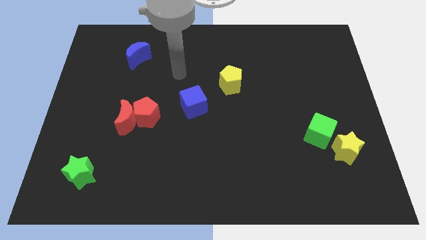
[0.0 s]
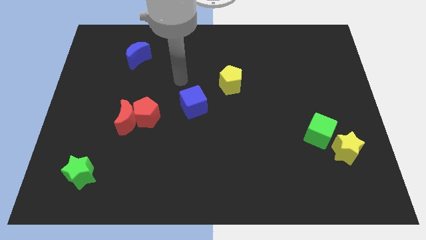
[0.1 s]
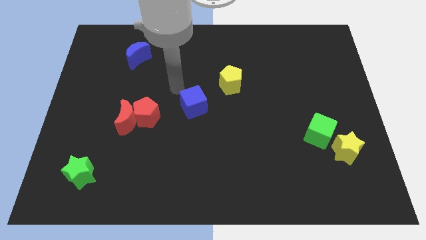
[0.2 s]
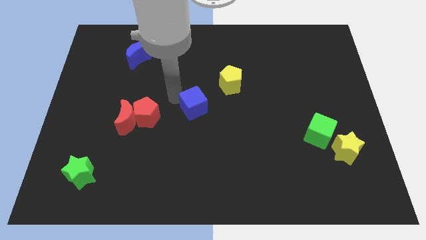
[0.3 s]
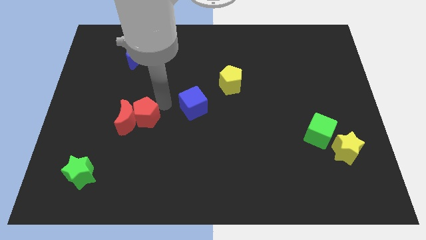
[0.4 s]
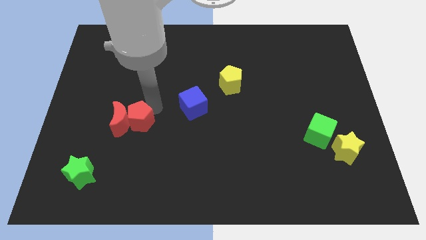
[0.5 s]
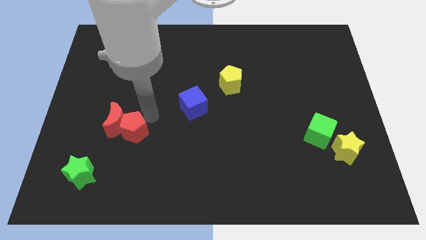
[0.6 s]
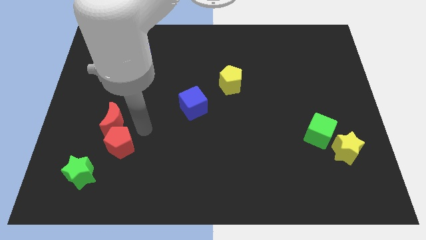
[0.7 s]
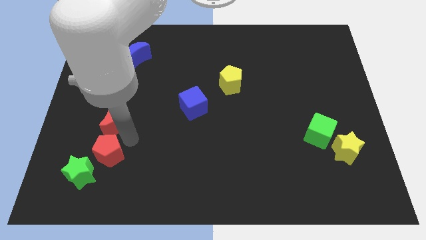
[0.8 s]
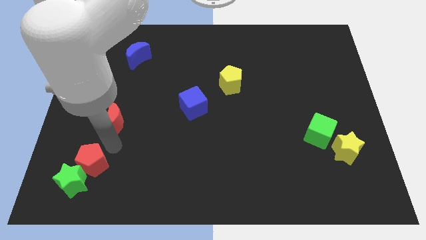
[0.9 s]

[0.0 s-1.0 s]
separate the red moon from the red pentagon

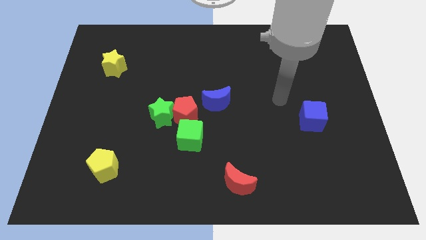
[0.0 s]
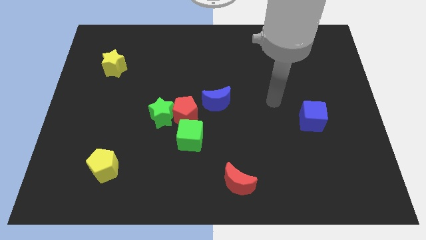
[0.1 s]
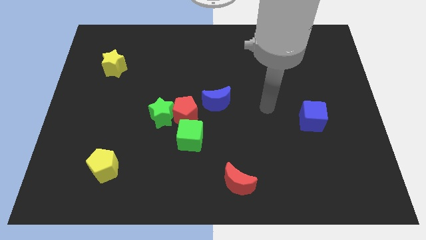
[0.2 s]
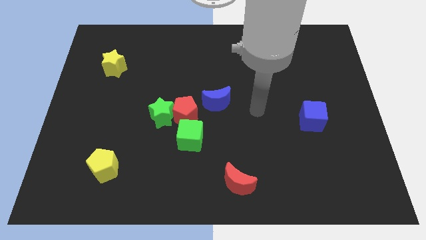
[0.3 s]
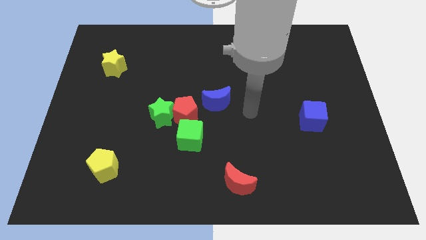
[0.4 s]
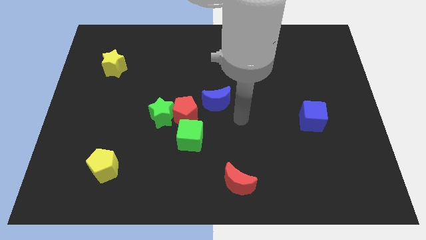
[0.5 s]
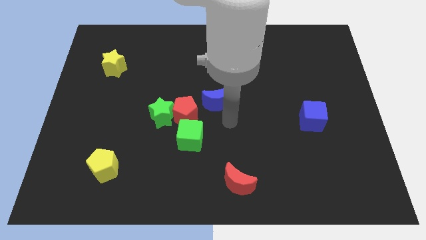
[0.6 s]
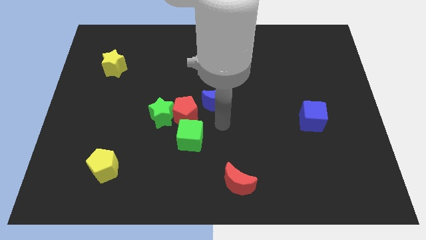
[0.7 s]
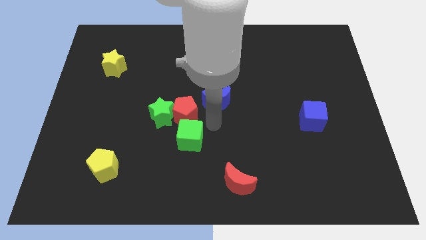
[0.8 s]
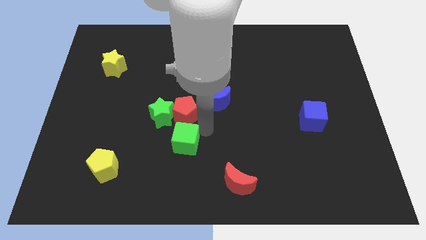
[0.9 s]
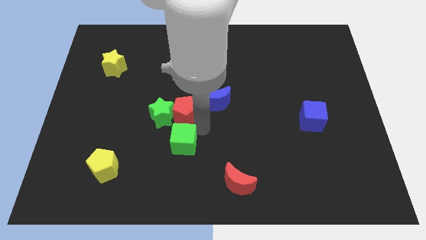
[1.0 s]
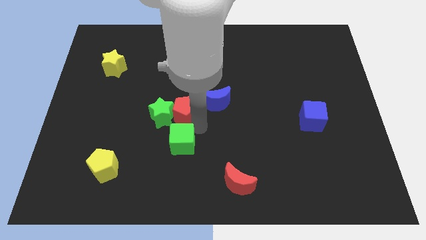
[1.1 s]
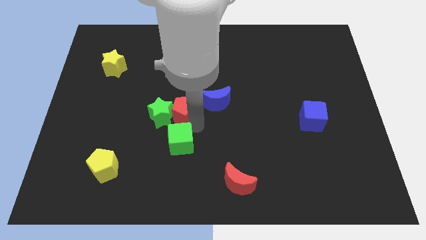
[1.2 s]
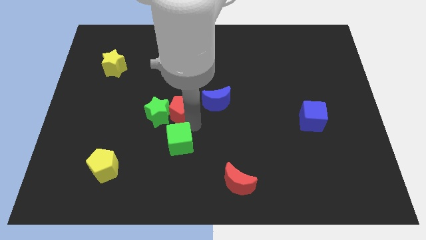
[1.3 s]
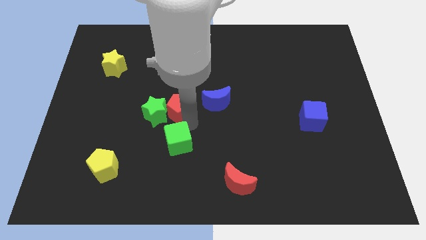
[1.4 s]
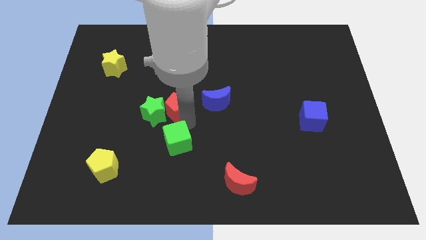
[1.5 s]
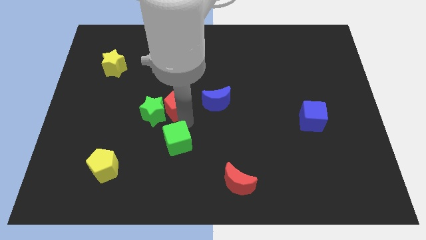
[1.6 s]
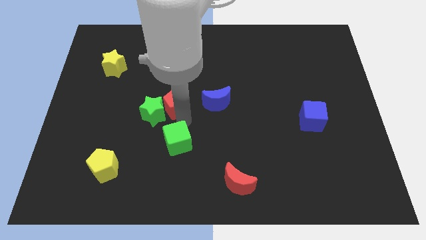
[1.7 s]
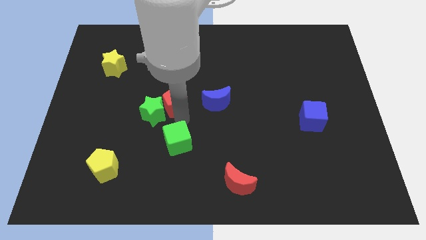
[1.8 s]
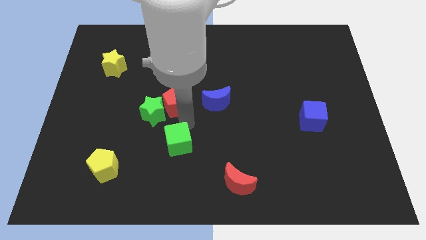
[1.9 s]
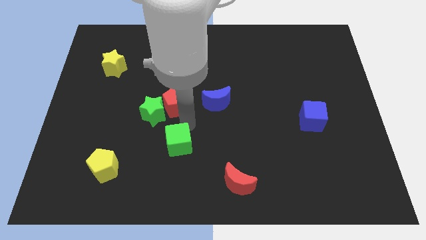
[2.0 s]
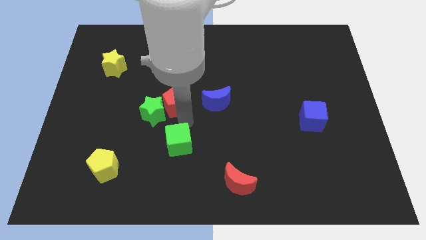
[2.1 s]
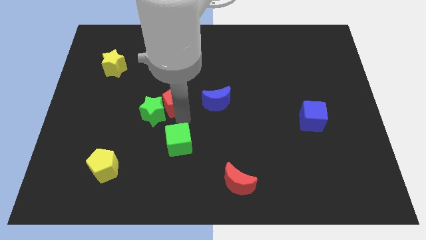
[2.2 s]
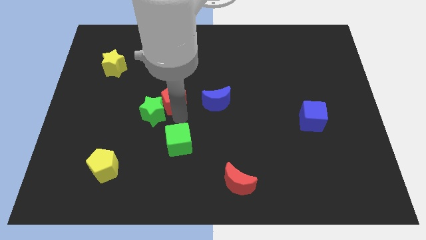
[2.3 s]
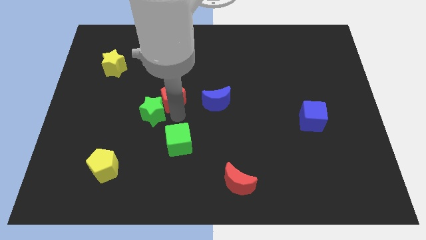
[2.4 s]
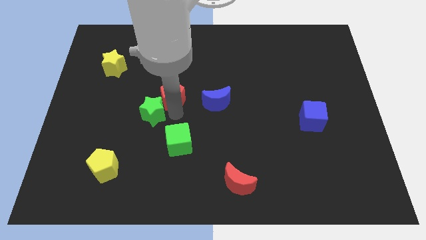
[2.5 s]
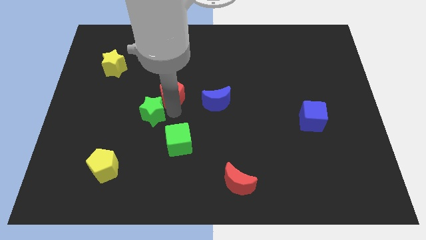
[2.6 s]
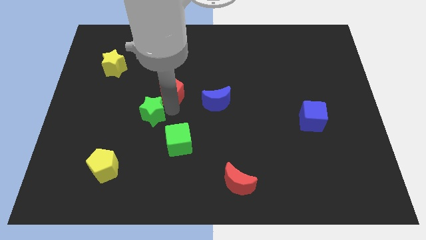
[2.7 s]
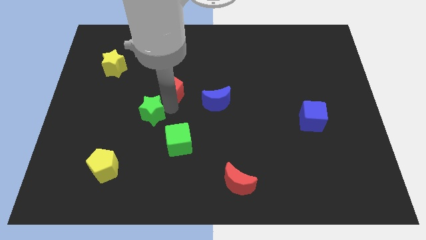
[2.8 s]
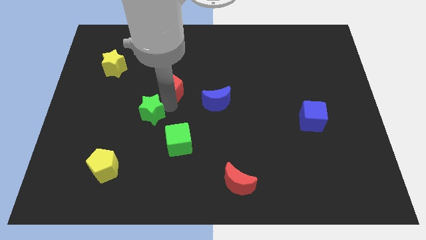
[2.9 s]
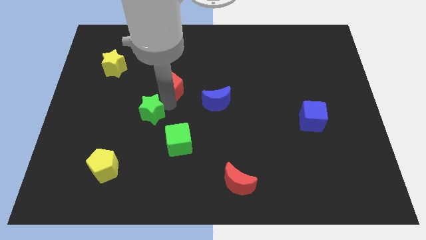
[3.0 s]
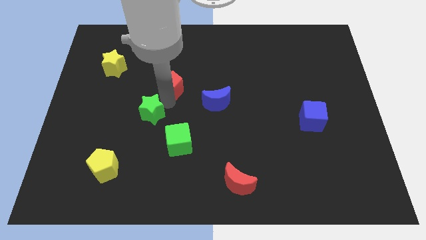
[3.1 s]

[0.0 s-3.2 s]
move the red pentagon away from the group

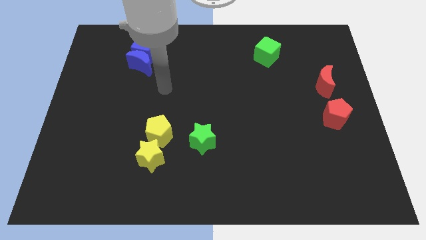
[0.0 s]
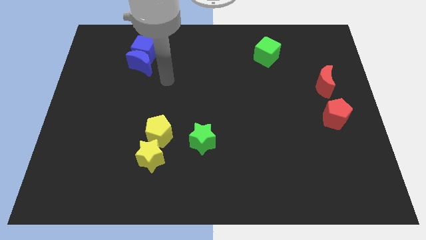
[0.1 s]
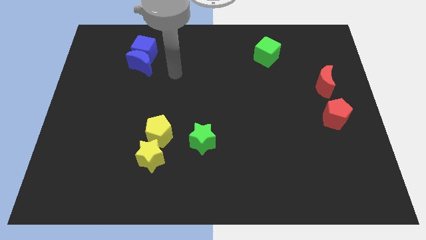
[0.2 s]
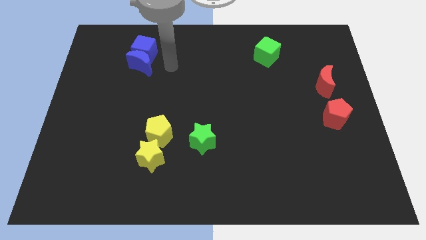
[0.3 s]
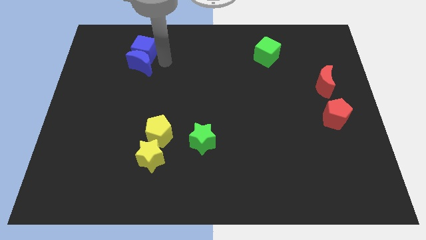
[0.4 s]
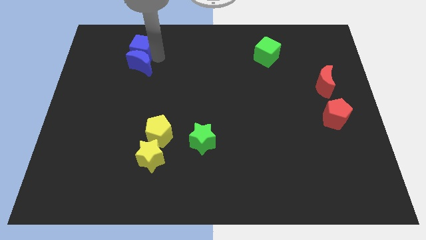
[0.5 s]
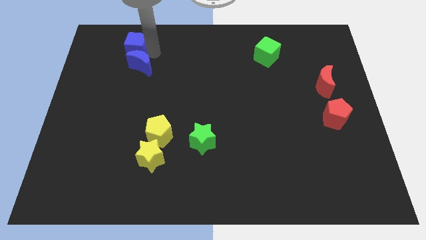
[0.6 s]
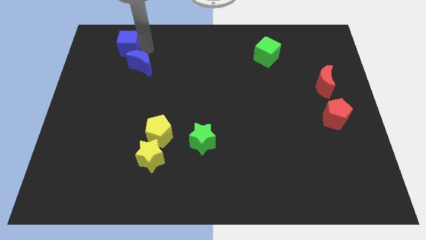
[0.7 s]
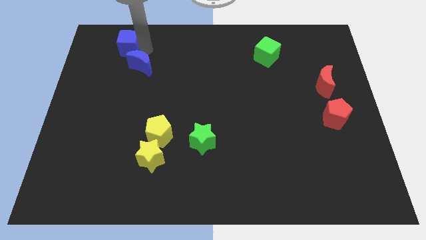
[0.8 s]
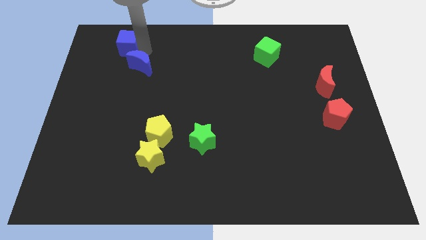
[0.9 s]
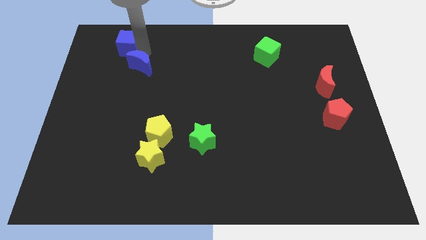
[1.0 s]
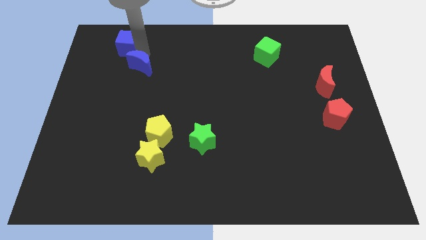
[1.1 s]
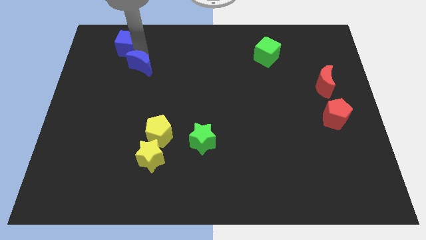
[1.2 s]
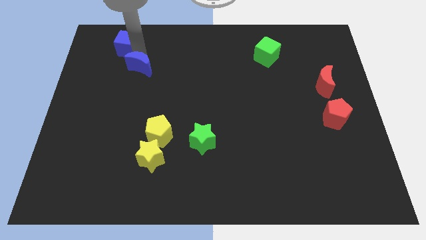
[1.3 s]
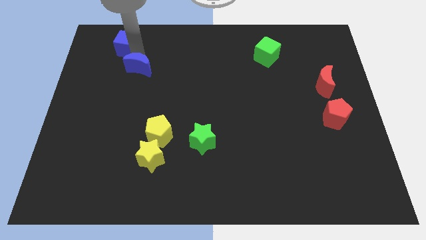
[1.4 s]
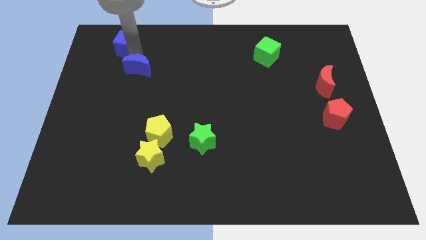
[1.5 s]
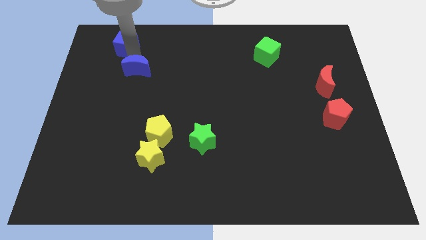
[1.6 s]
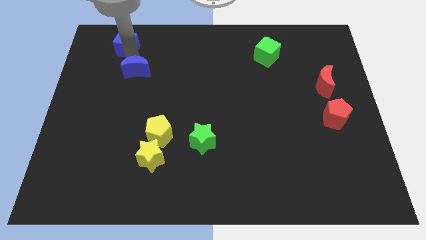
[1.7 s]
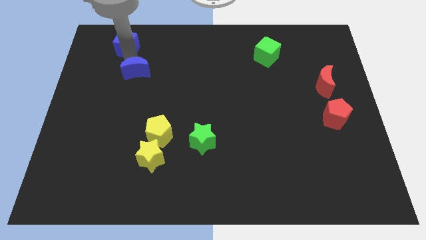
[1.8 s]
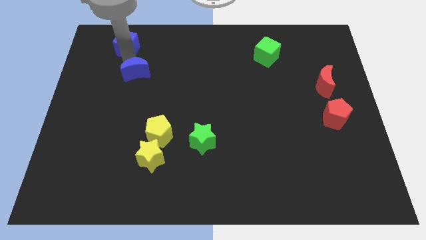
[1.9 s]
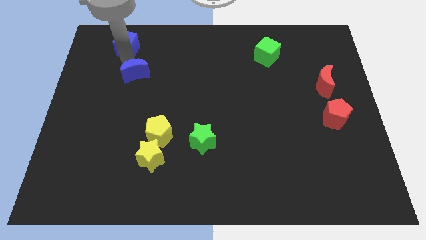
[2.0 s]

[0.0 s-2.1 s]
pull the blue moon apart from the blue cube

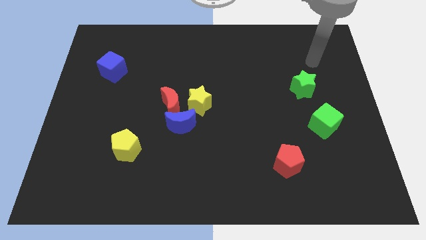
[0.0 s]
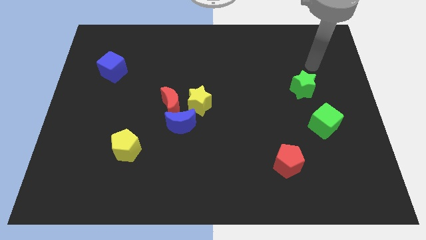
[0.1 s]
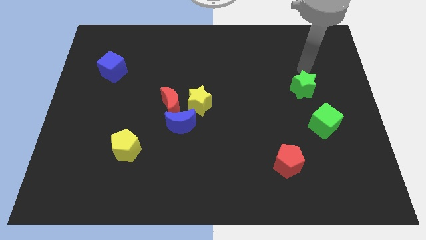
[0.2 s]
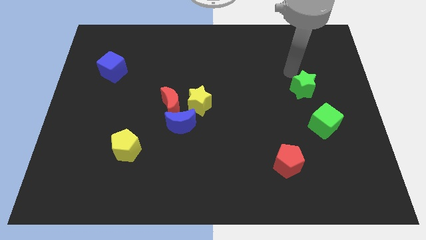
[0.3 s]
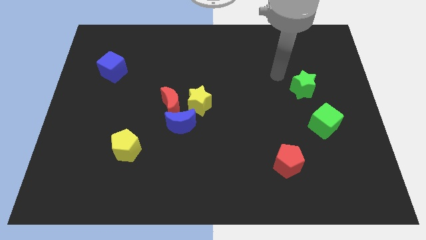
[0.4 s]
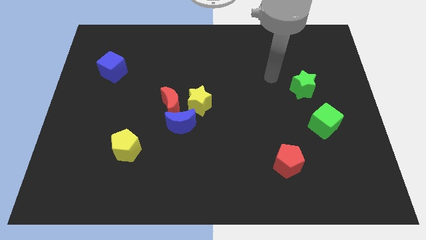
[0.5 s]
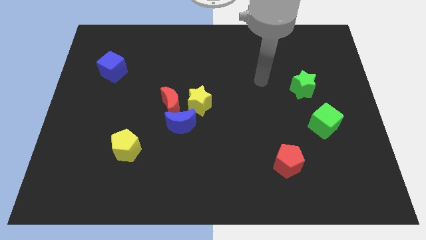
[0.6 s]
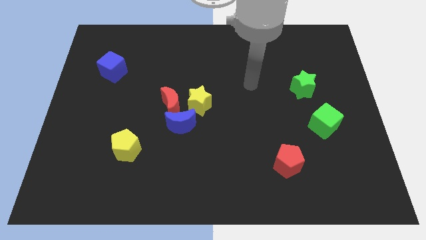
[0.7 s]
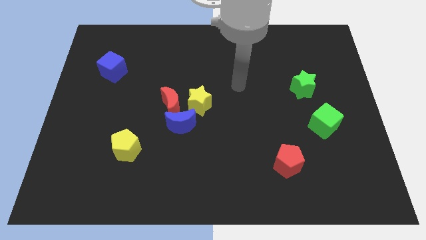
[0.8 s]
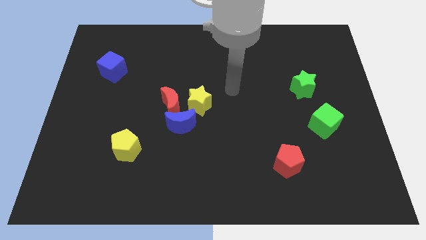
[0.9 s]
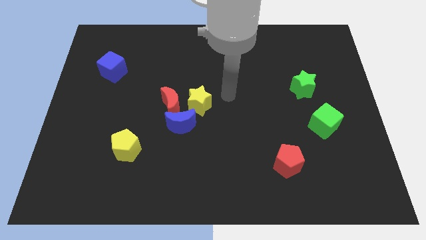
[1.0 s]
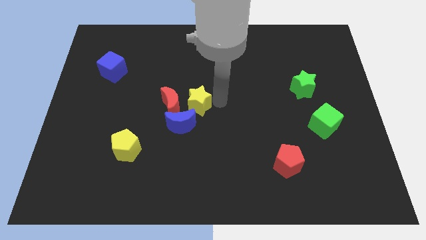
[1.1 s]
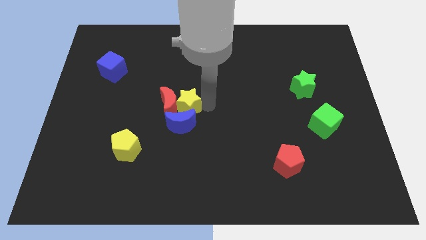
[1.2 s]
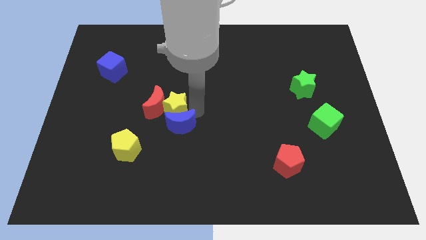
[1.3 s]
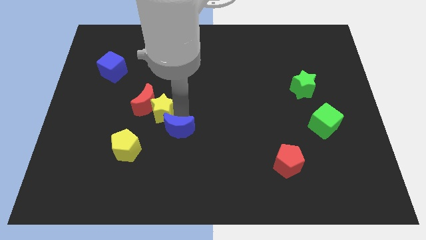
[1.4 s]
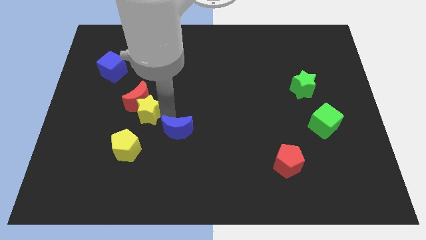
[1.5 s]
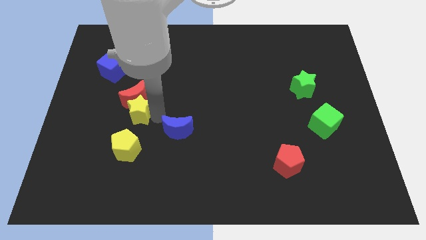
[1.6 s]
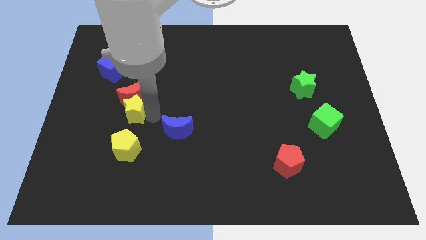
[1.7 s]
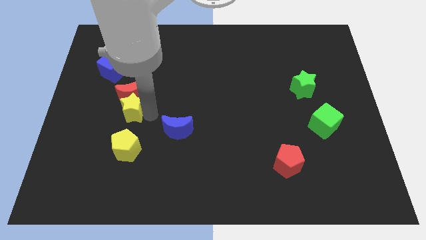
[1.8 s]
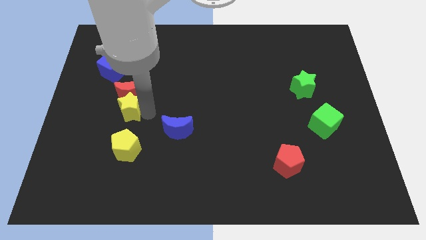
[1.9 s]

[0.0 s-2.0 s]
separate the red moon from the blue moon and yellow star

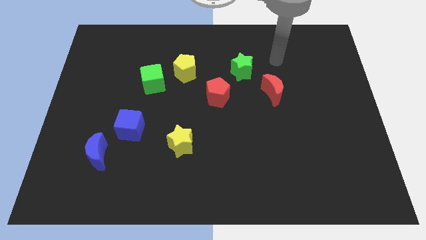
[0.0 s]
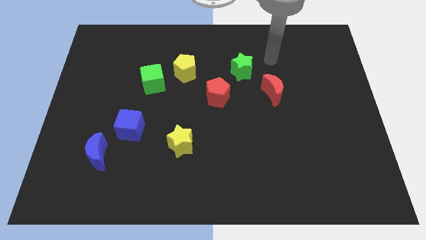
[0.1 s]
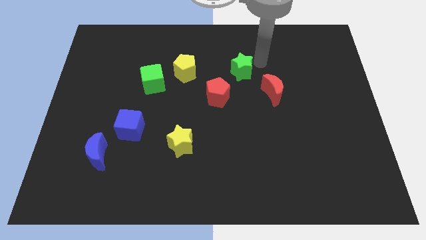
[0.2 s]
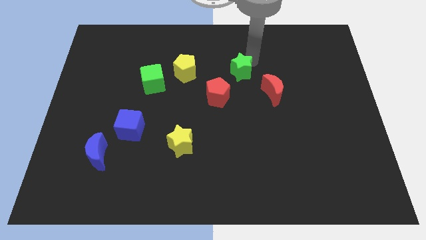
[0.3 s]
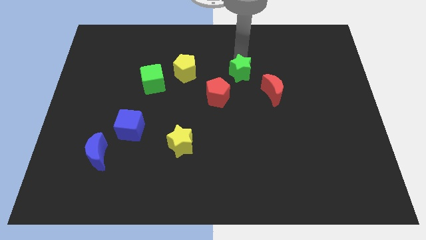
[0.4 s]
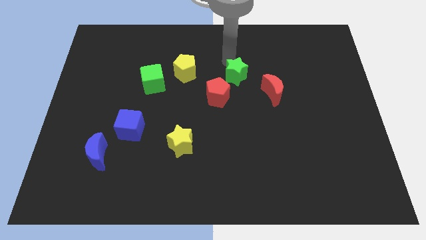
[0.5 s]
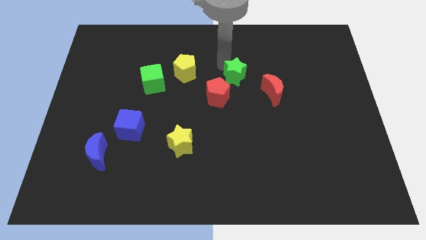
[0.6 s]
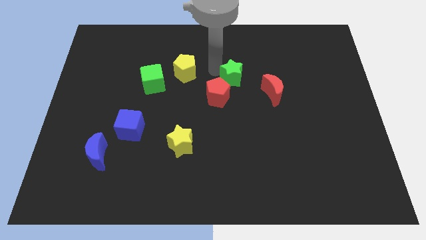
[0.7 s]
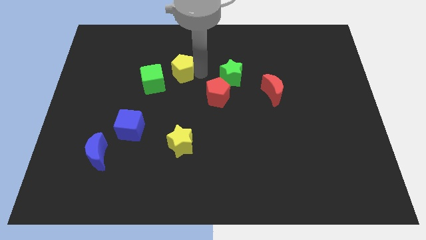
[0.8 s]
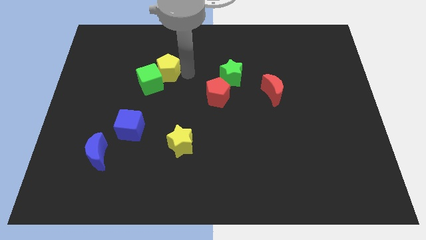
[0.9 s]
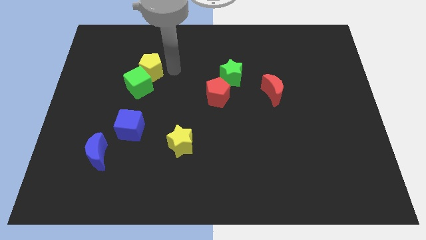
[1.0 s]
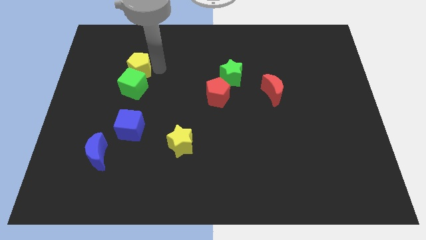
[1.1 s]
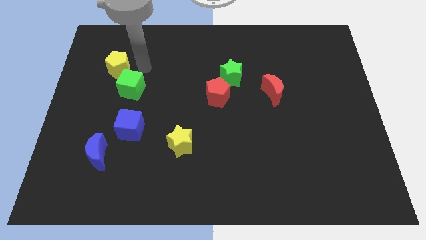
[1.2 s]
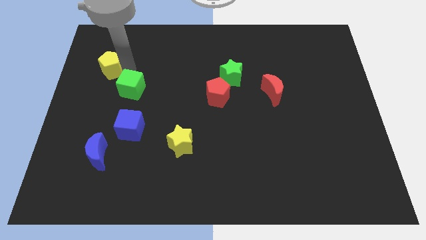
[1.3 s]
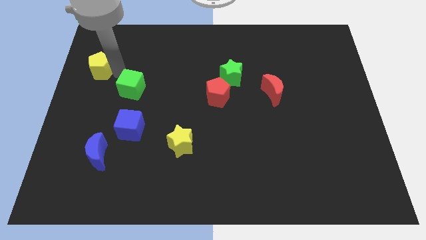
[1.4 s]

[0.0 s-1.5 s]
move the green cube away from the yellow pentagon
